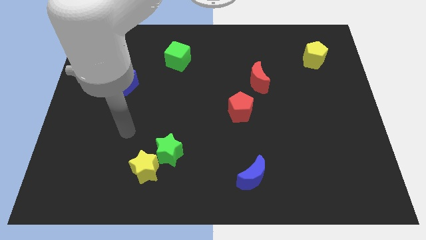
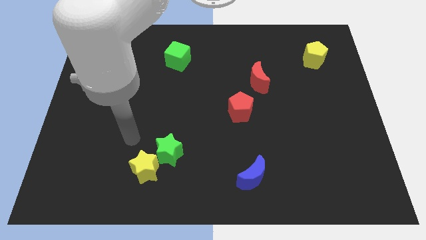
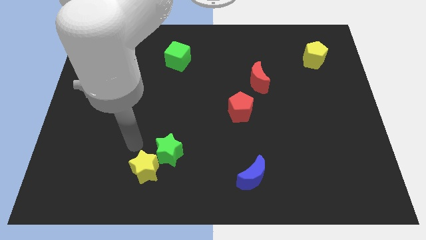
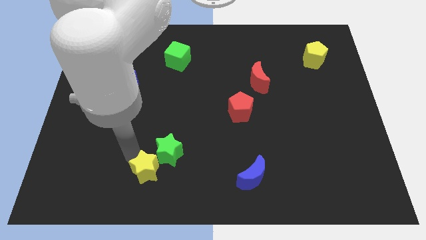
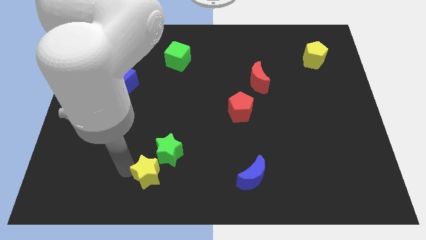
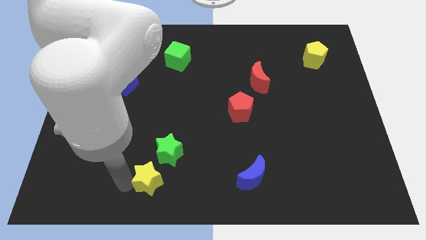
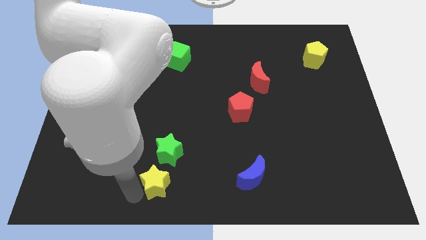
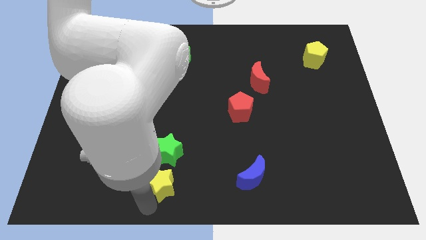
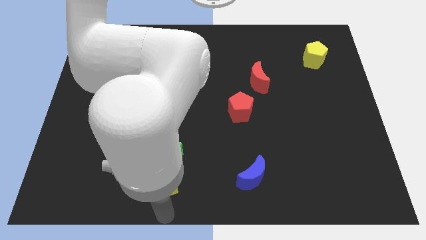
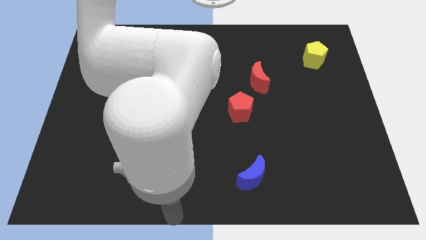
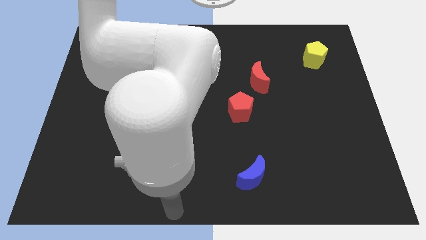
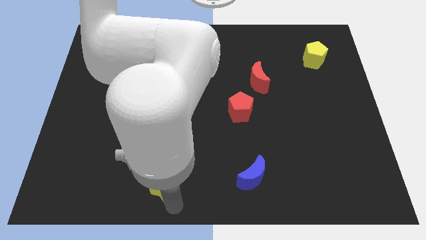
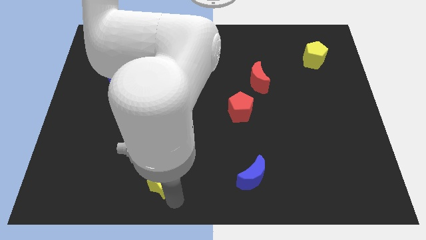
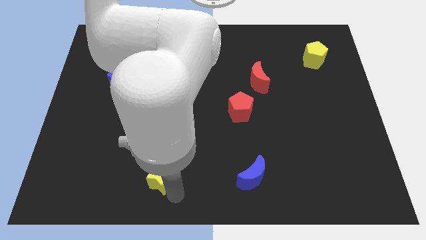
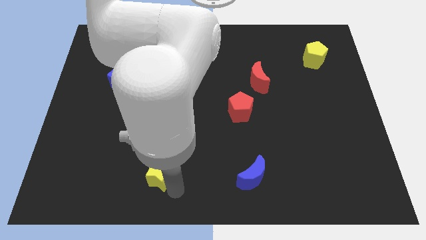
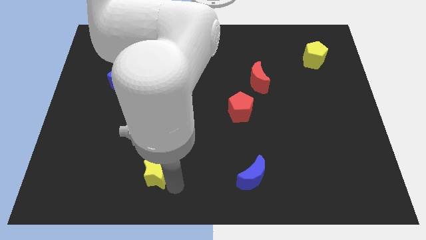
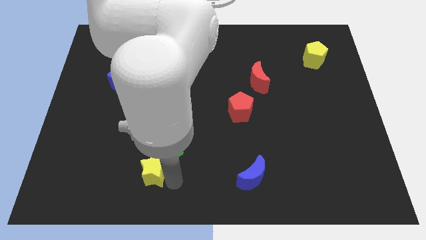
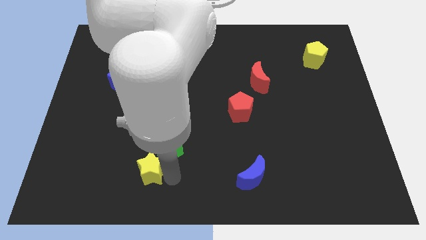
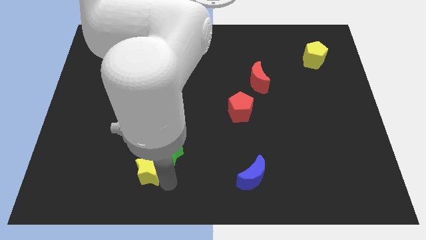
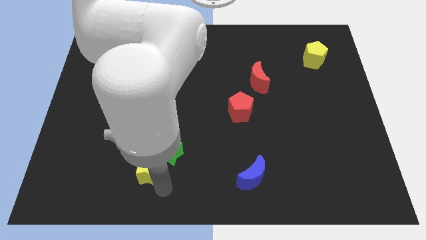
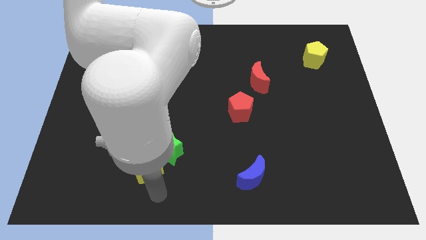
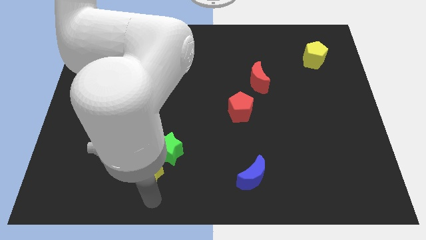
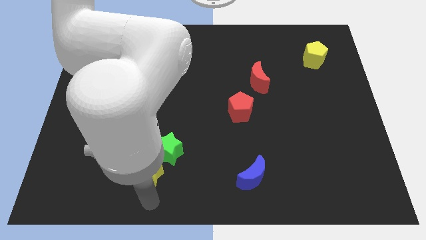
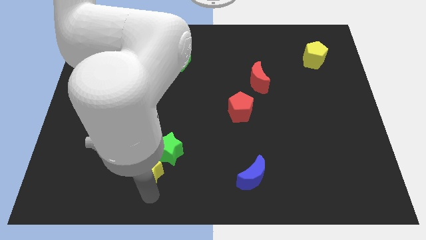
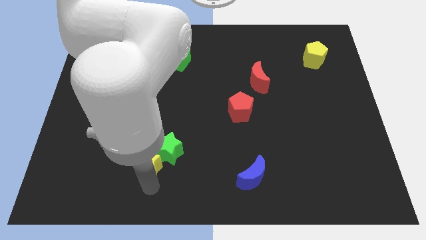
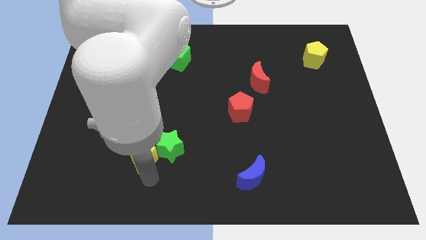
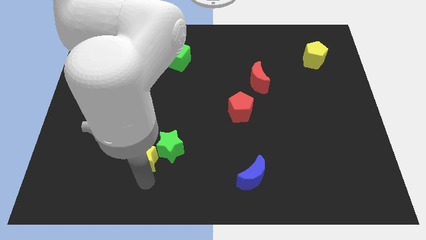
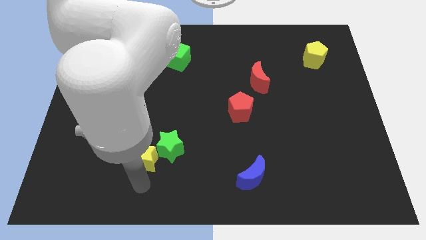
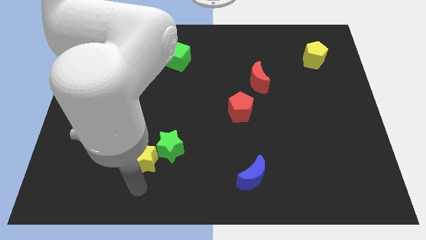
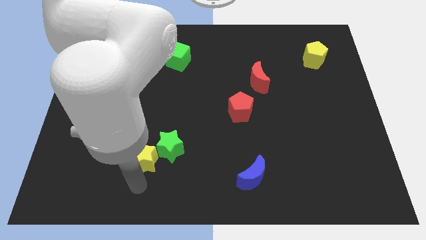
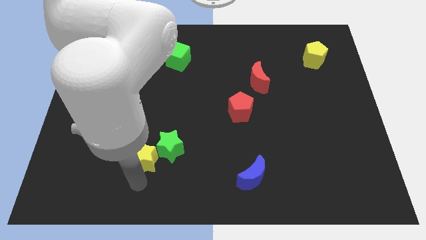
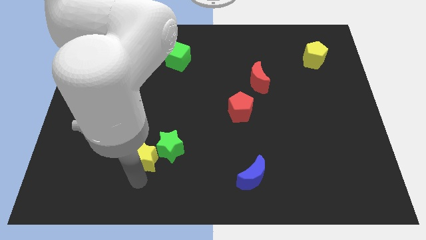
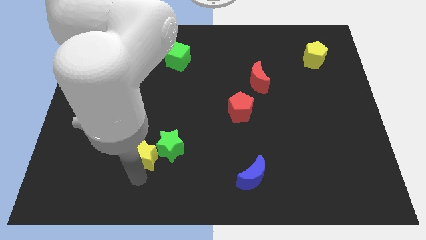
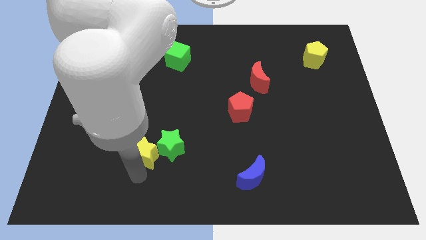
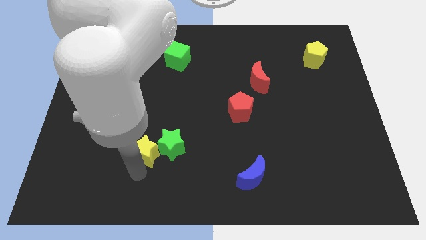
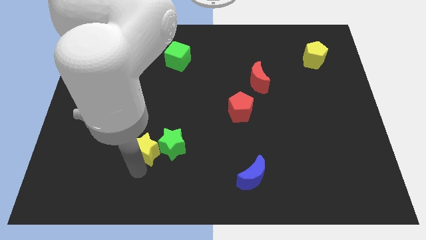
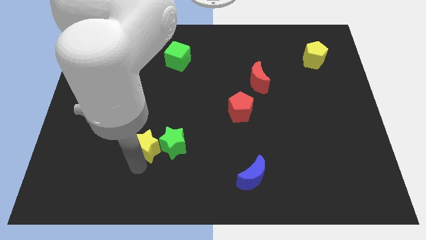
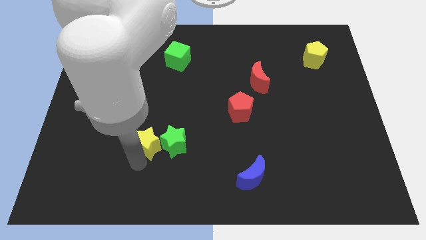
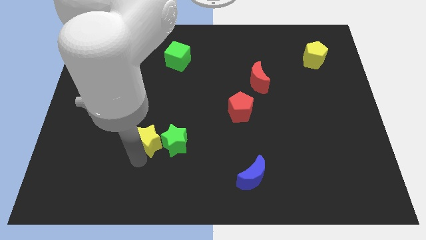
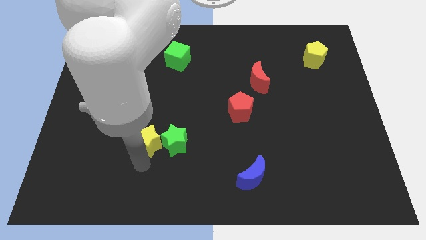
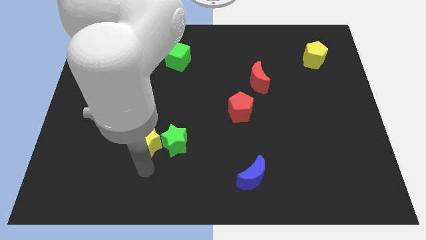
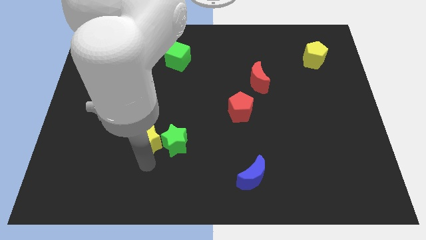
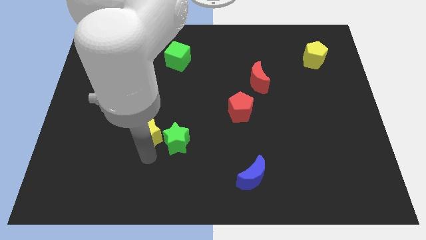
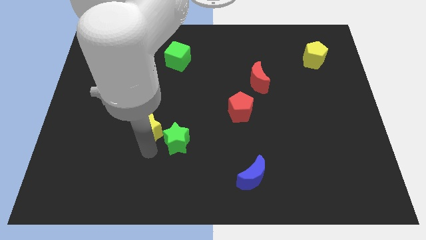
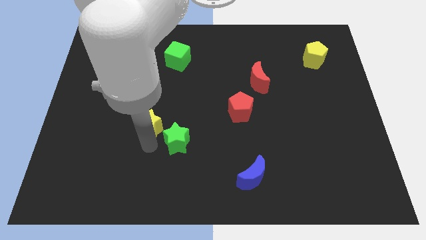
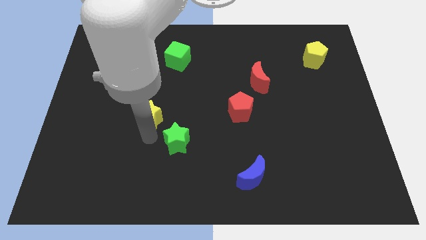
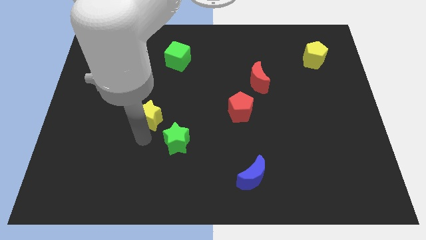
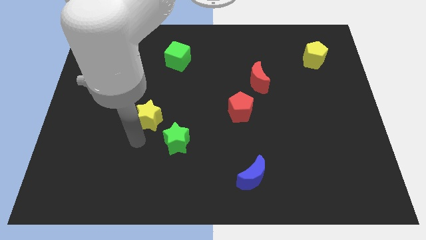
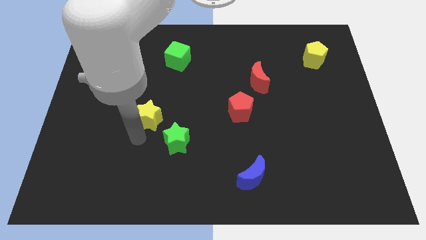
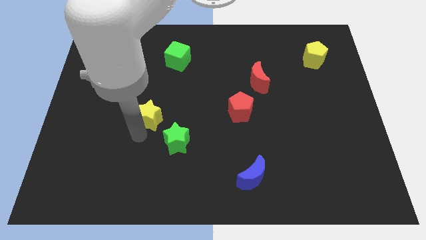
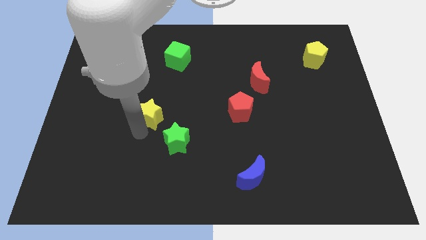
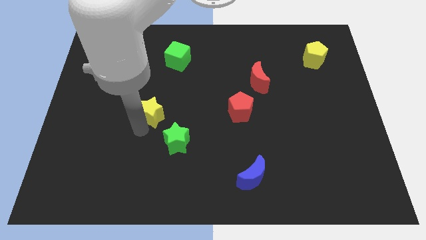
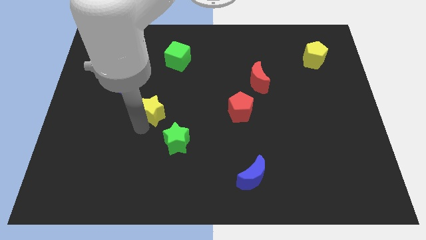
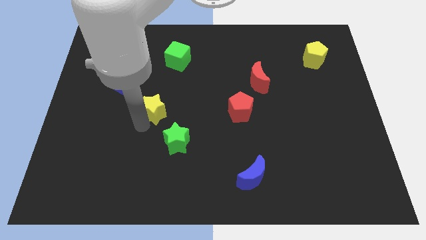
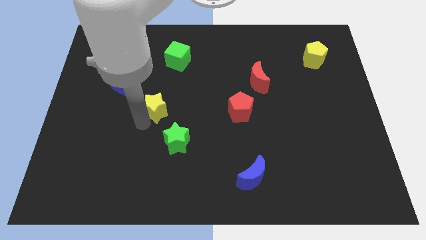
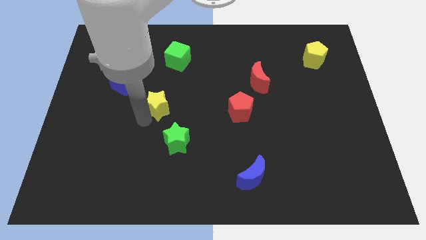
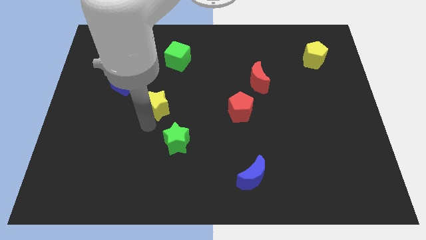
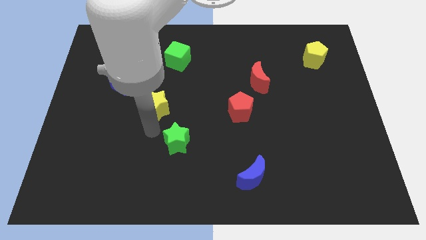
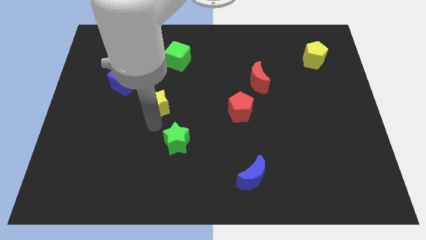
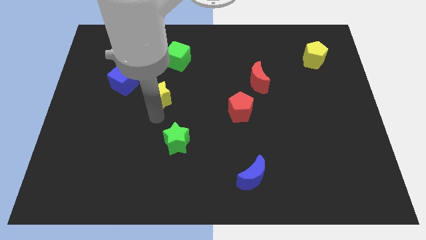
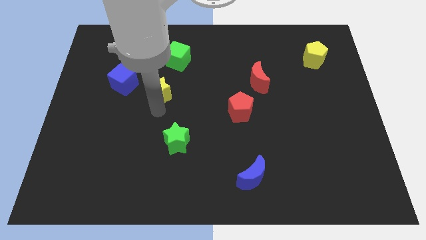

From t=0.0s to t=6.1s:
put the yellow star to the right side of the blue cube

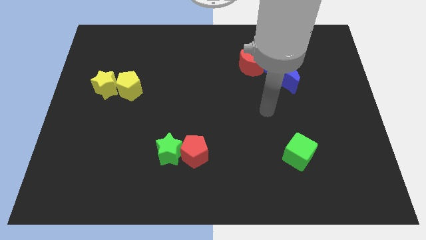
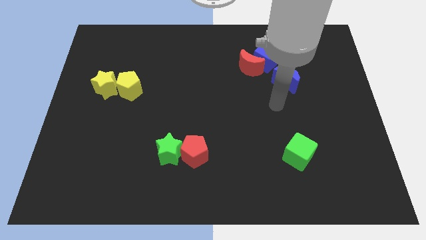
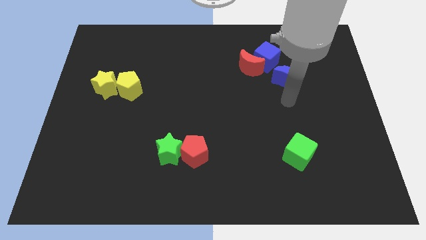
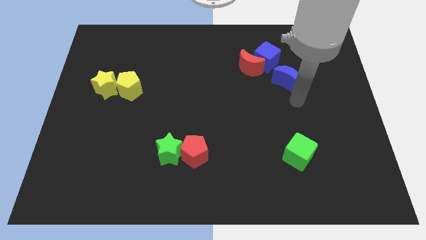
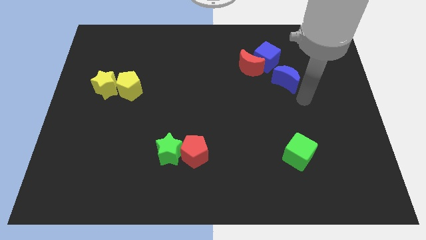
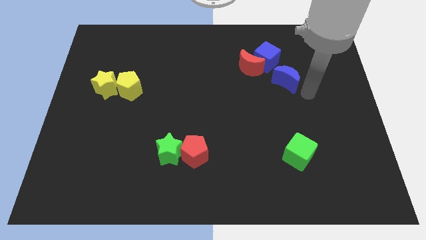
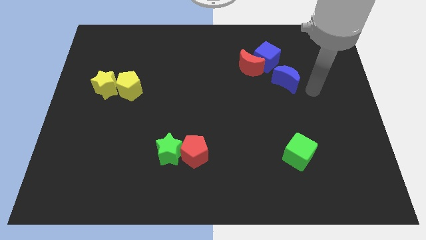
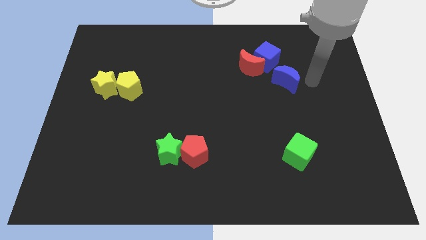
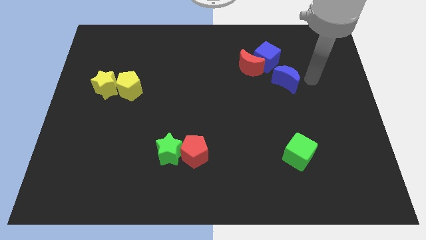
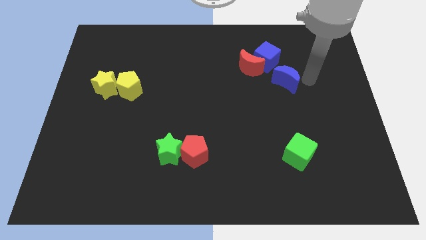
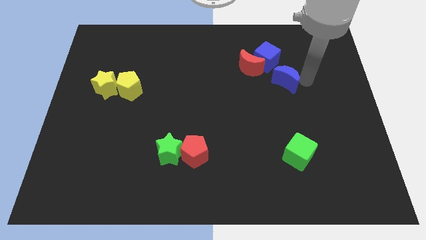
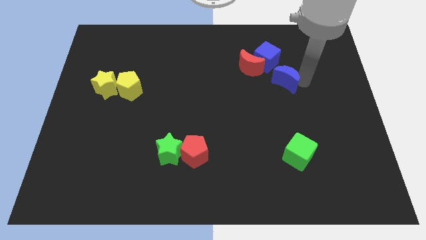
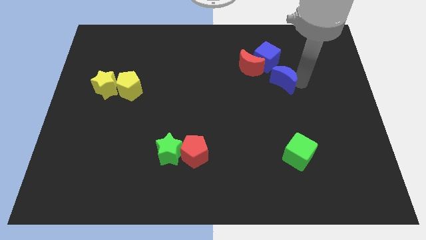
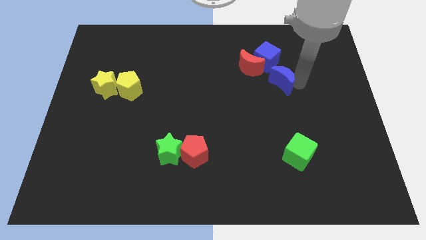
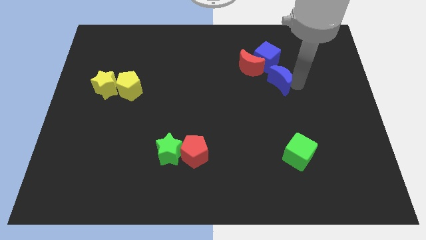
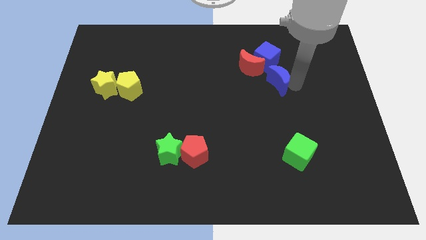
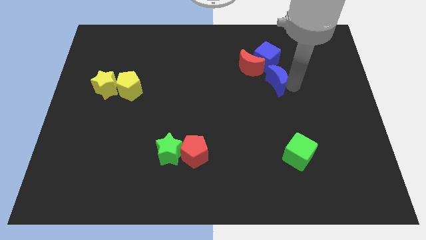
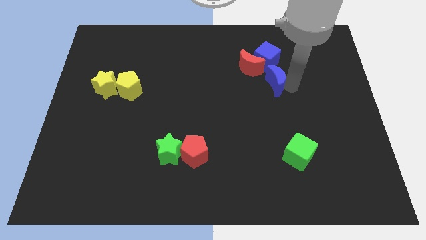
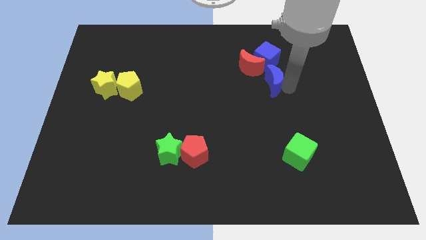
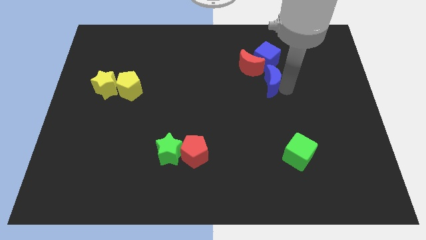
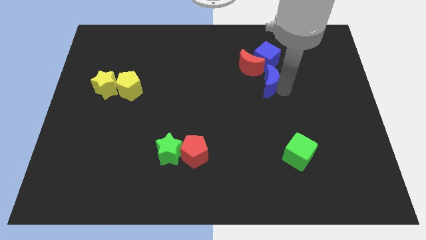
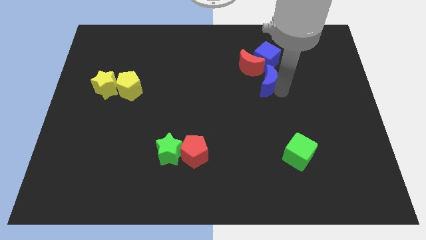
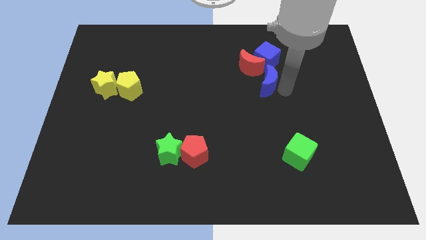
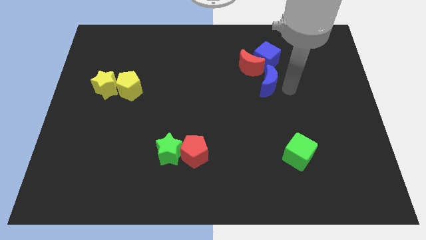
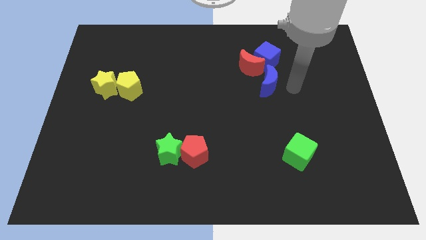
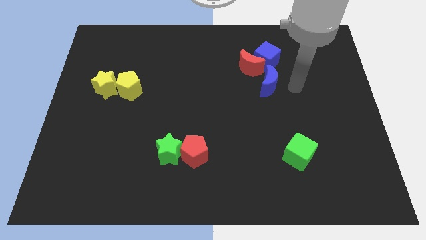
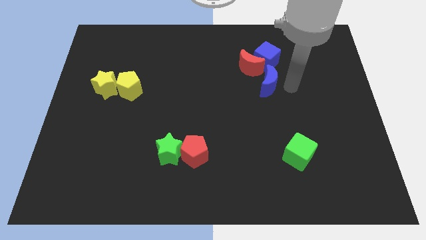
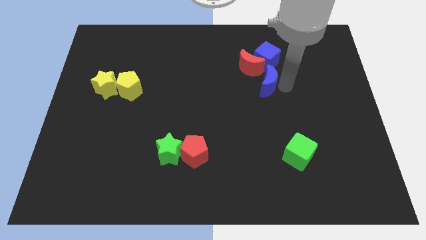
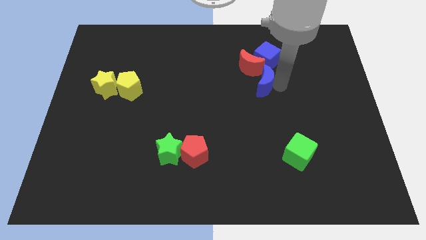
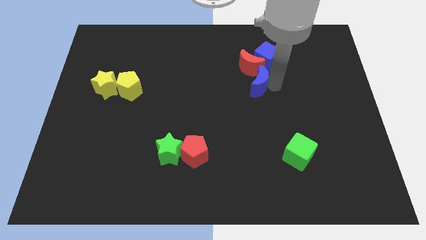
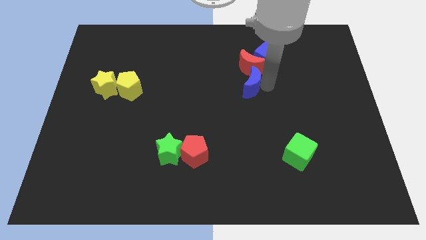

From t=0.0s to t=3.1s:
slide the blue moon diagonally down and to the left of the red moon
